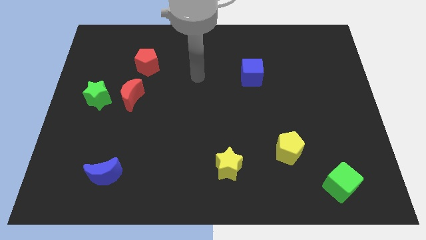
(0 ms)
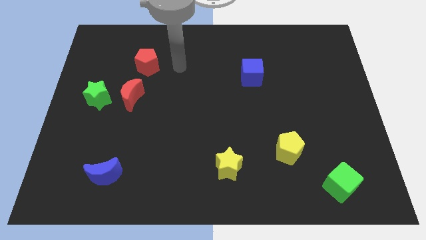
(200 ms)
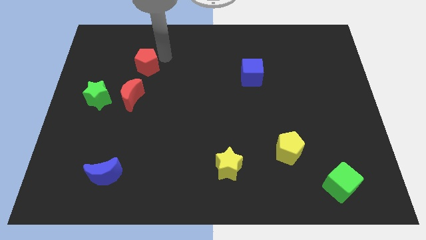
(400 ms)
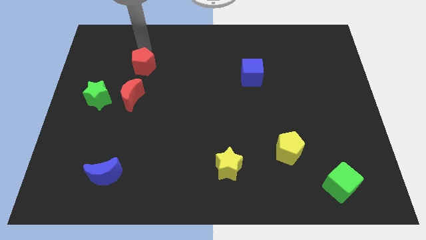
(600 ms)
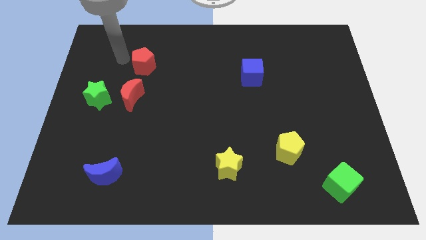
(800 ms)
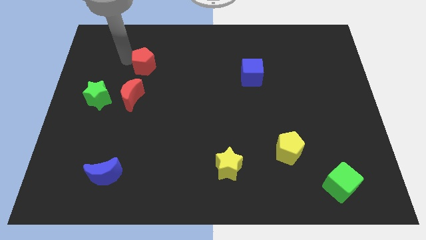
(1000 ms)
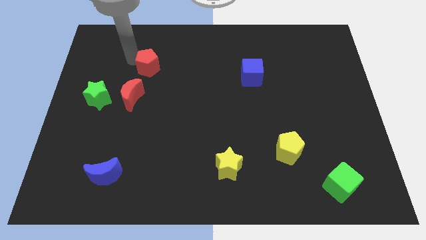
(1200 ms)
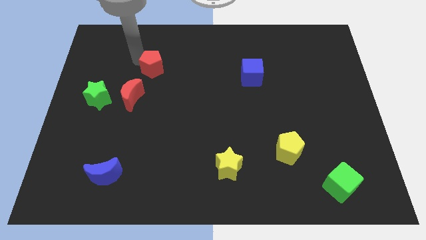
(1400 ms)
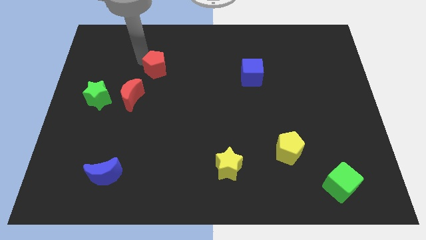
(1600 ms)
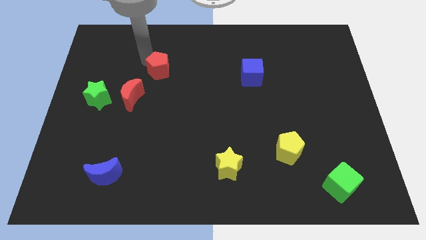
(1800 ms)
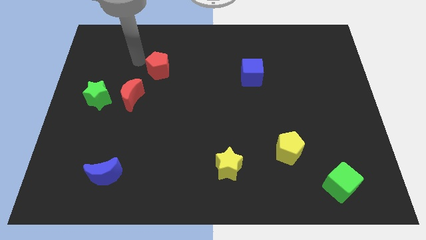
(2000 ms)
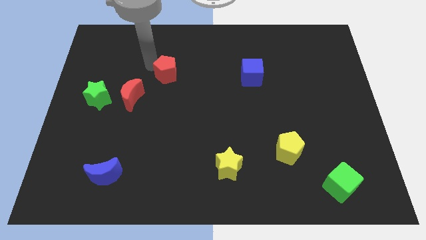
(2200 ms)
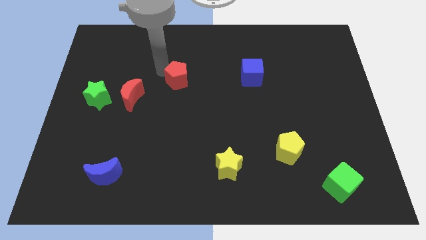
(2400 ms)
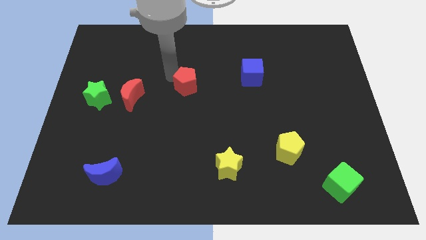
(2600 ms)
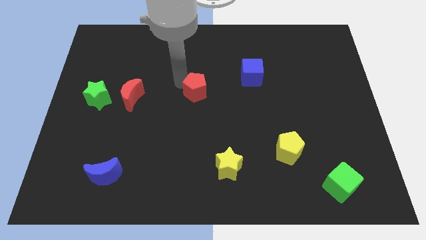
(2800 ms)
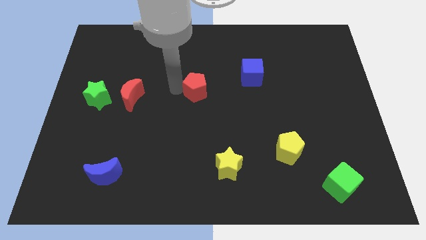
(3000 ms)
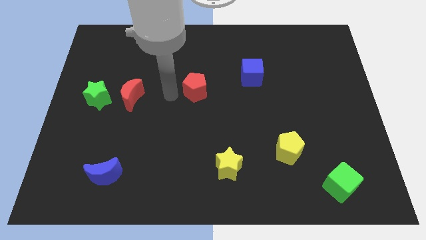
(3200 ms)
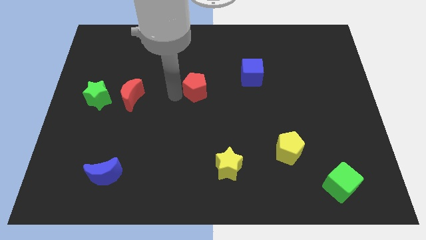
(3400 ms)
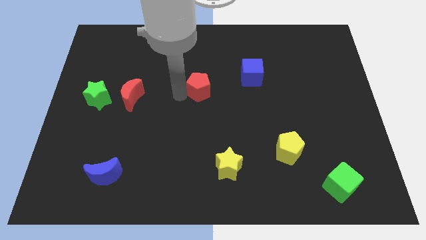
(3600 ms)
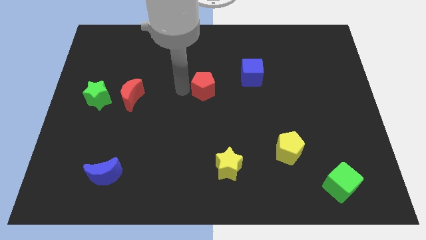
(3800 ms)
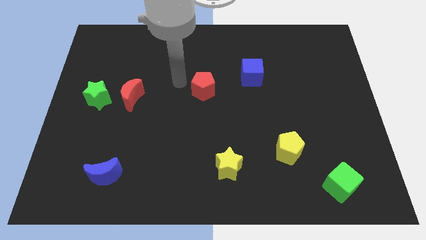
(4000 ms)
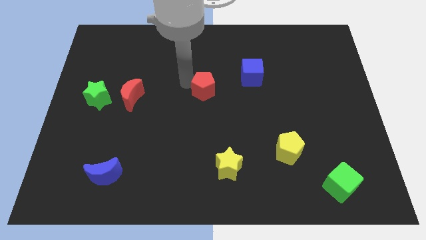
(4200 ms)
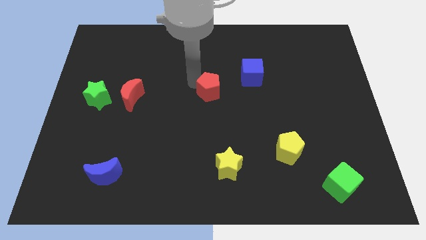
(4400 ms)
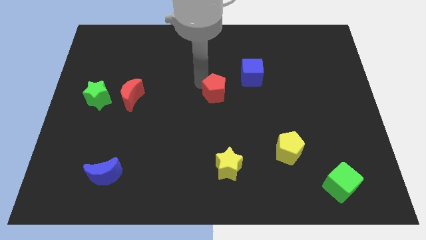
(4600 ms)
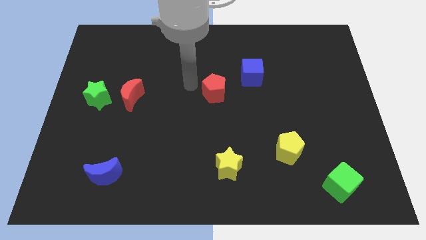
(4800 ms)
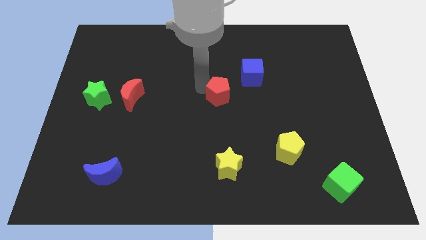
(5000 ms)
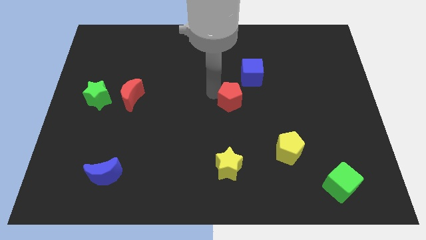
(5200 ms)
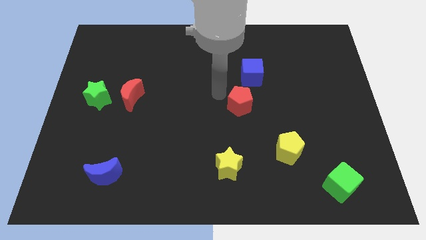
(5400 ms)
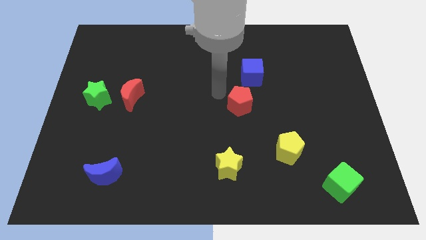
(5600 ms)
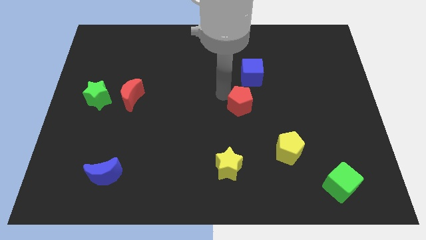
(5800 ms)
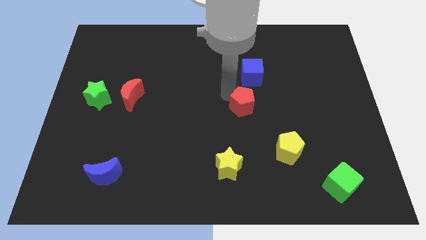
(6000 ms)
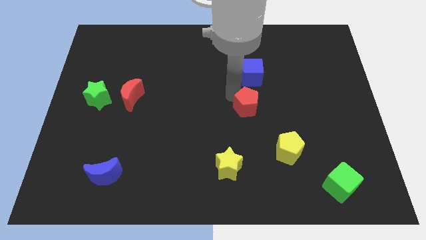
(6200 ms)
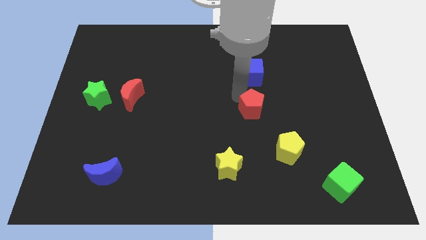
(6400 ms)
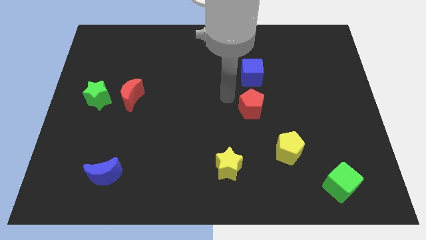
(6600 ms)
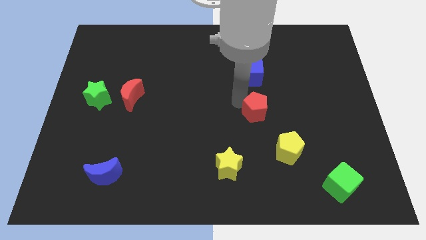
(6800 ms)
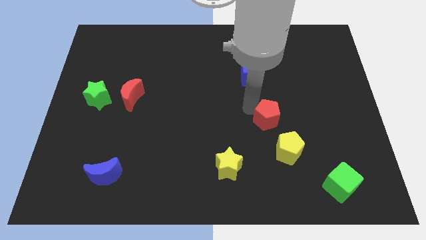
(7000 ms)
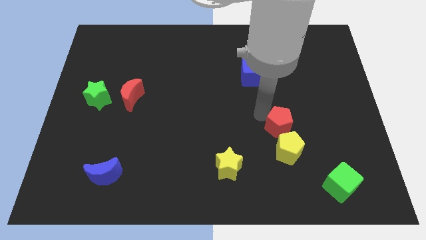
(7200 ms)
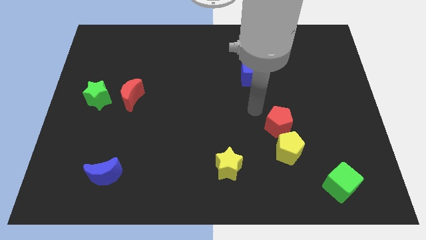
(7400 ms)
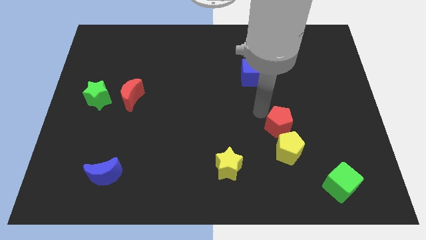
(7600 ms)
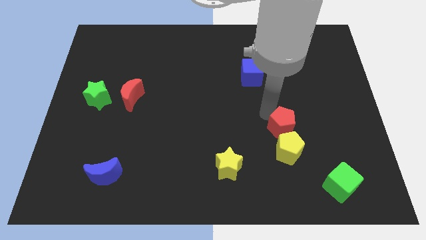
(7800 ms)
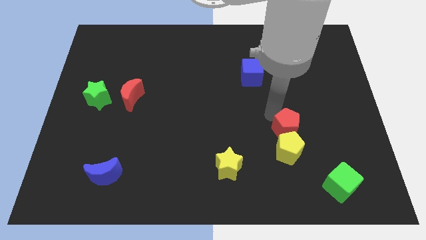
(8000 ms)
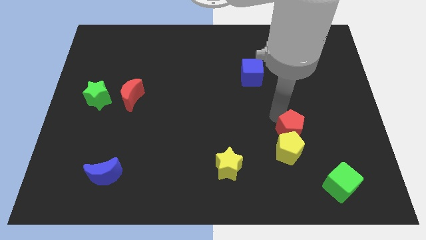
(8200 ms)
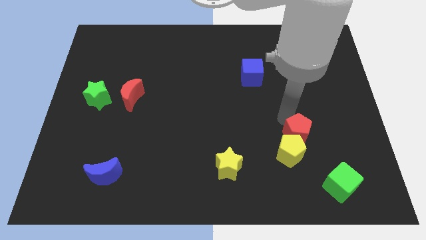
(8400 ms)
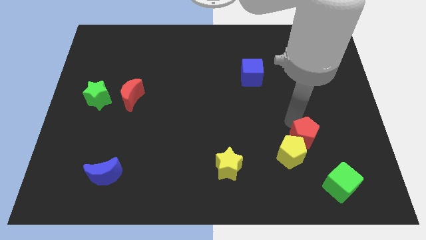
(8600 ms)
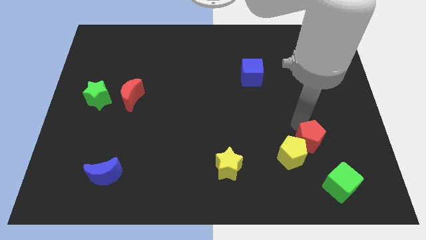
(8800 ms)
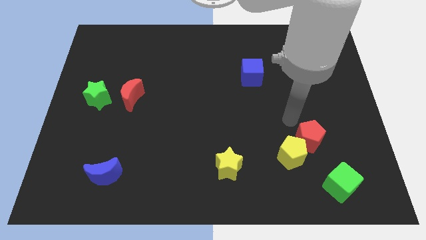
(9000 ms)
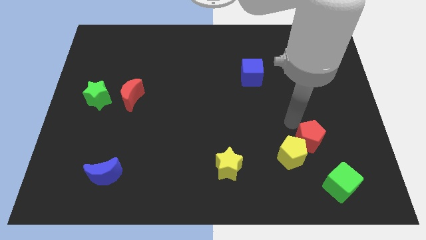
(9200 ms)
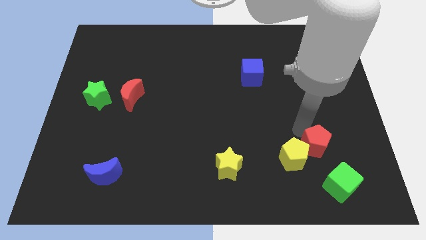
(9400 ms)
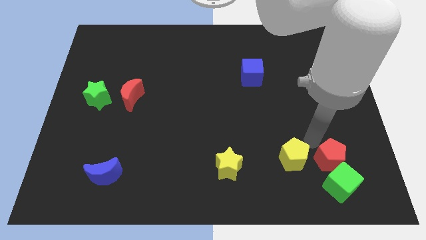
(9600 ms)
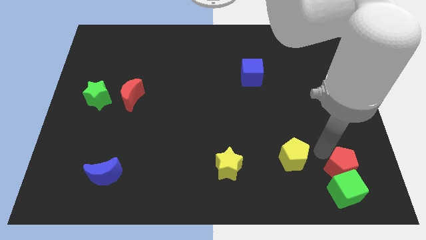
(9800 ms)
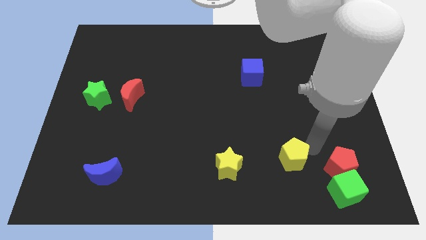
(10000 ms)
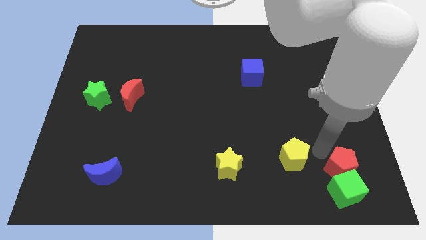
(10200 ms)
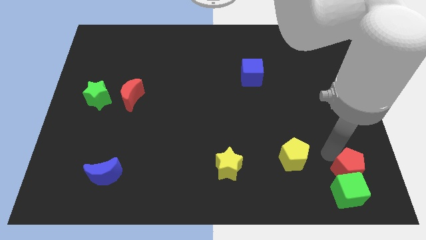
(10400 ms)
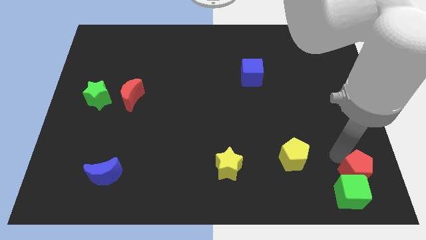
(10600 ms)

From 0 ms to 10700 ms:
slide the red pentagon to the lower right corner

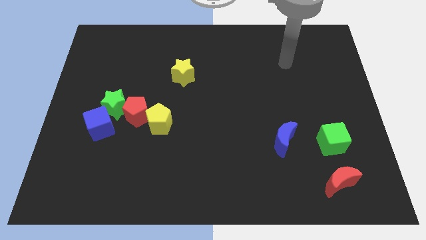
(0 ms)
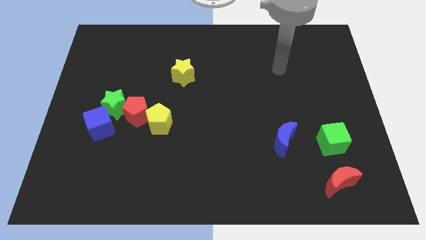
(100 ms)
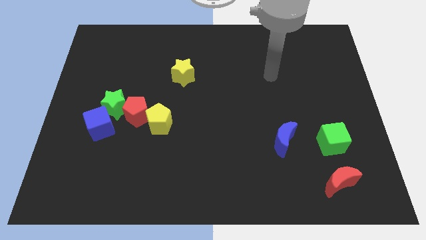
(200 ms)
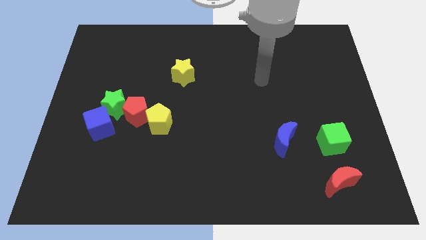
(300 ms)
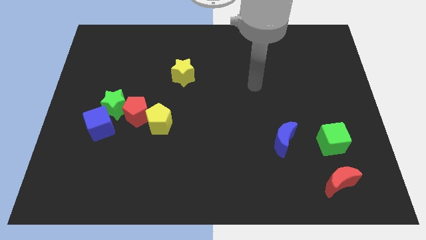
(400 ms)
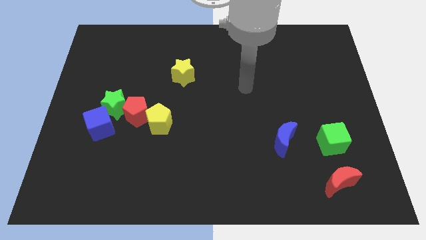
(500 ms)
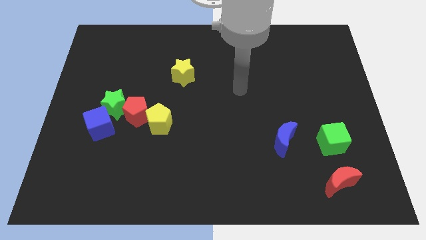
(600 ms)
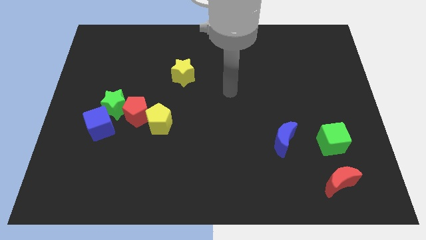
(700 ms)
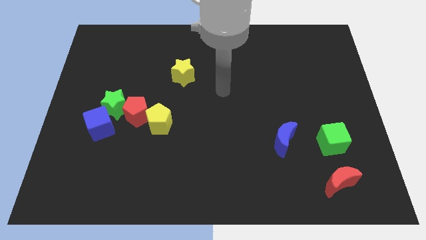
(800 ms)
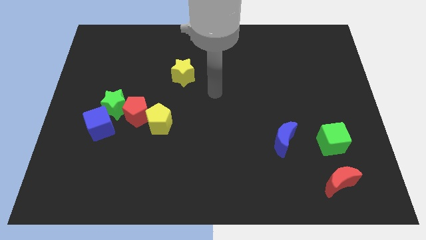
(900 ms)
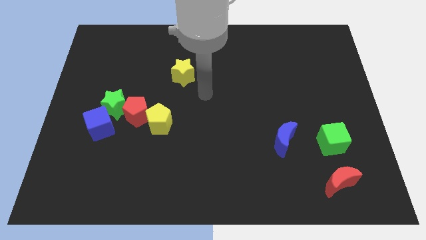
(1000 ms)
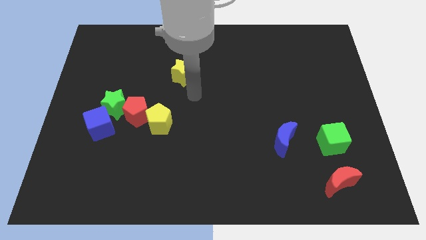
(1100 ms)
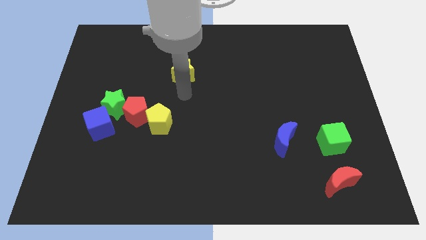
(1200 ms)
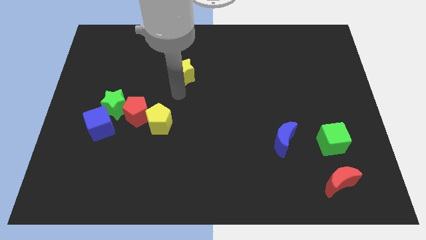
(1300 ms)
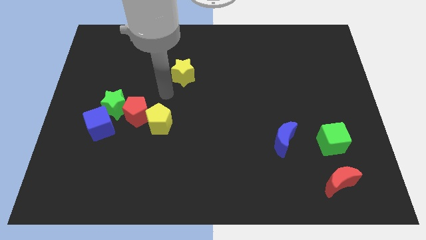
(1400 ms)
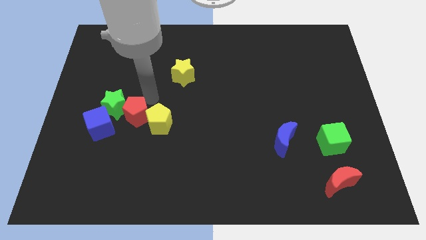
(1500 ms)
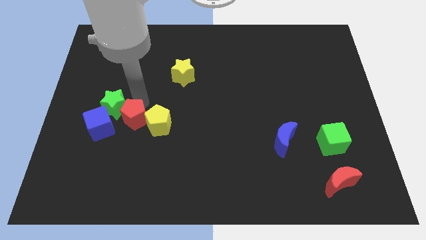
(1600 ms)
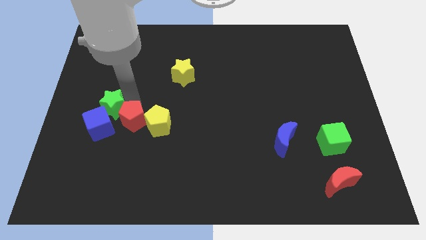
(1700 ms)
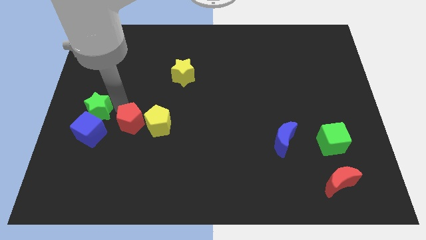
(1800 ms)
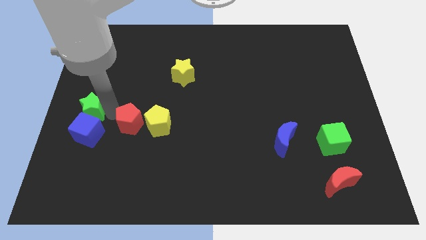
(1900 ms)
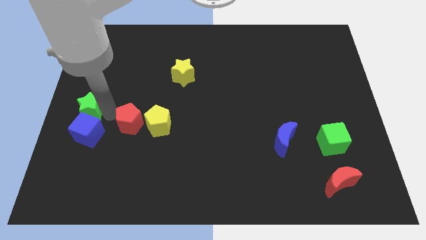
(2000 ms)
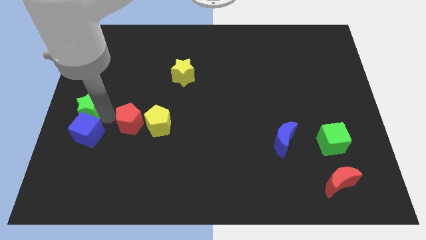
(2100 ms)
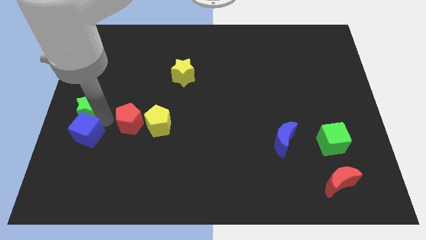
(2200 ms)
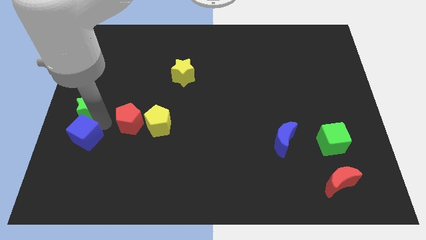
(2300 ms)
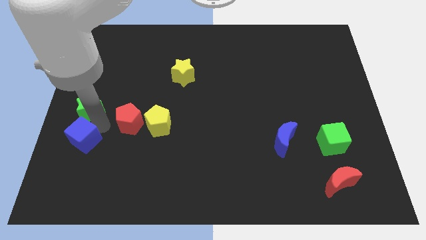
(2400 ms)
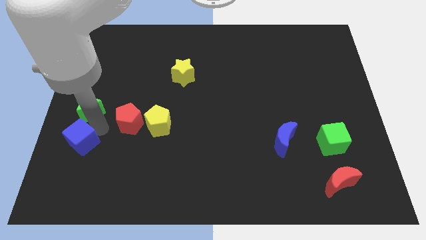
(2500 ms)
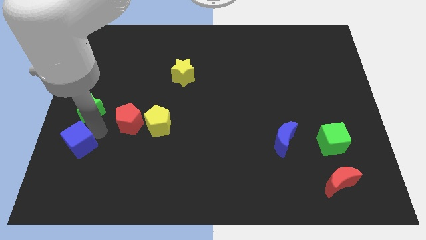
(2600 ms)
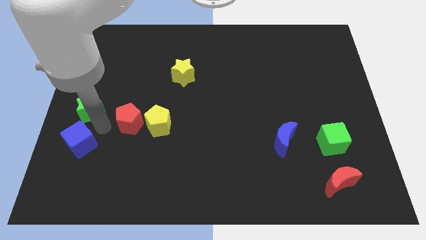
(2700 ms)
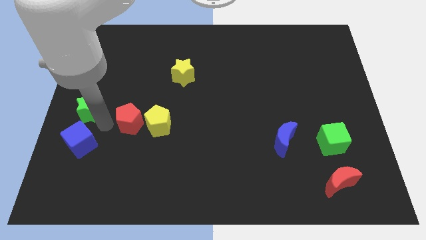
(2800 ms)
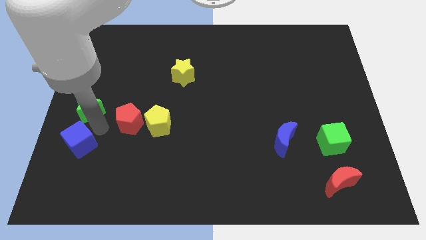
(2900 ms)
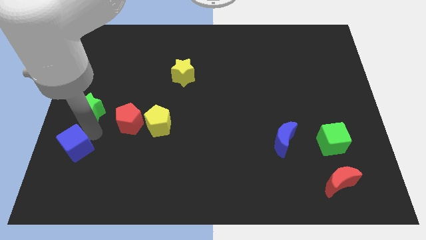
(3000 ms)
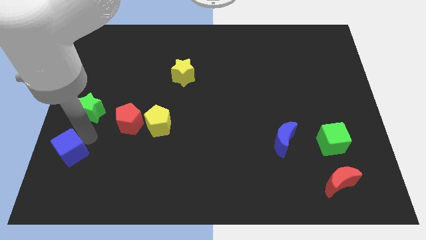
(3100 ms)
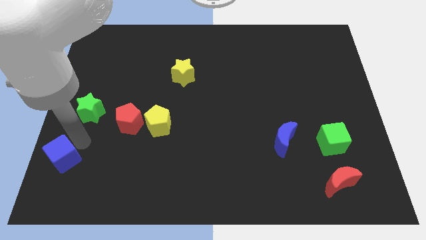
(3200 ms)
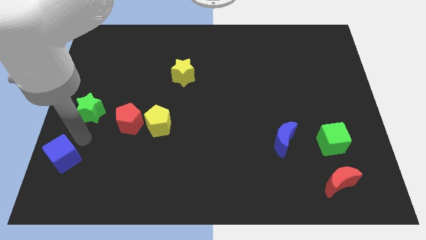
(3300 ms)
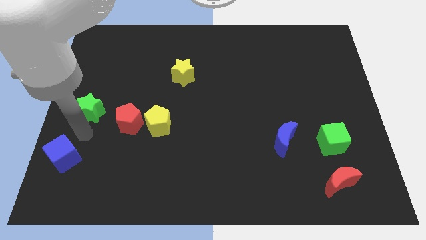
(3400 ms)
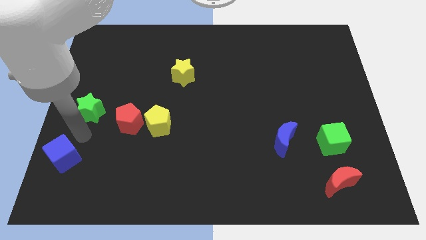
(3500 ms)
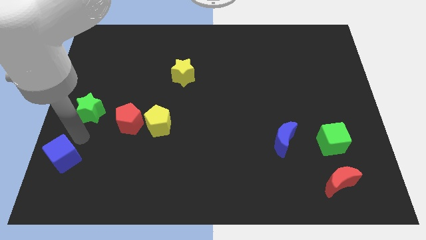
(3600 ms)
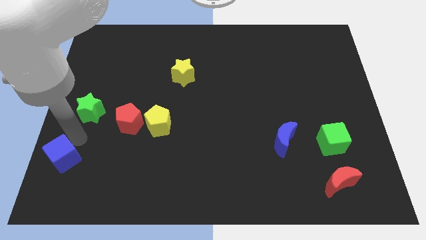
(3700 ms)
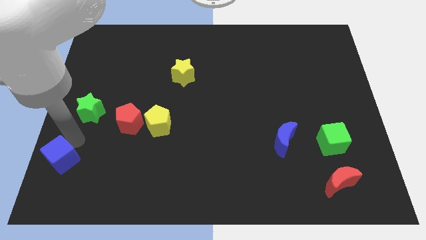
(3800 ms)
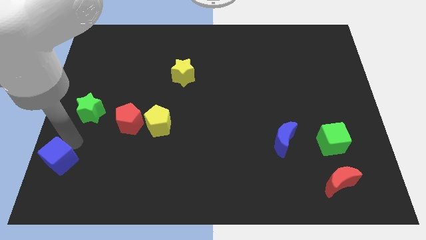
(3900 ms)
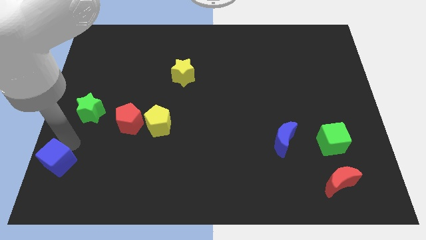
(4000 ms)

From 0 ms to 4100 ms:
slide the blue cube to the bottom left
